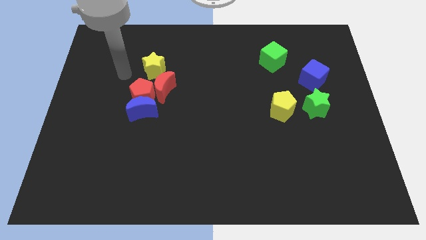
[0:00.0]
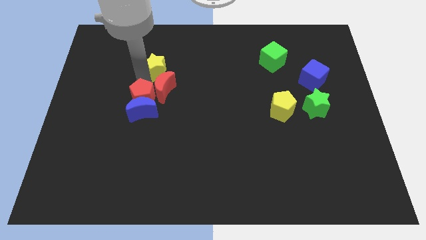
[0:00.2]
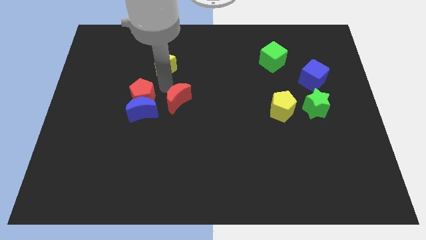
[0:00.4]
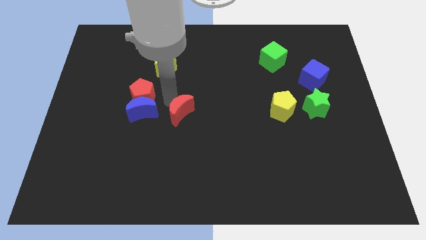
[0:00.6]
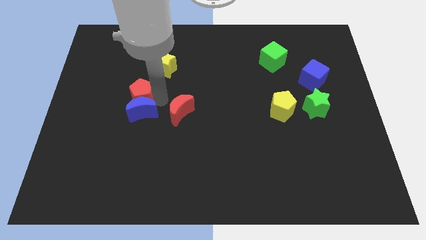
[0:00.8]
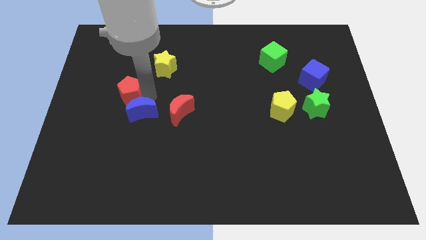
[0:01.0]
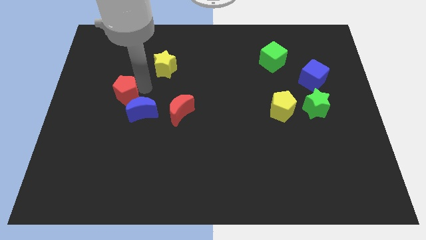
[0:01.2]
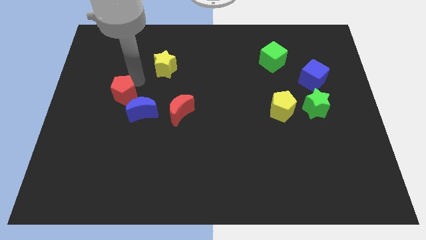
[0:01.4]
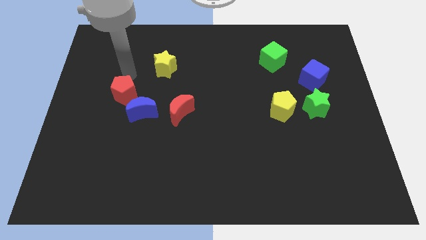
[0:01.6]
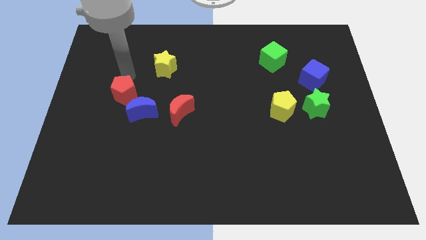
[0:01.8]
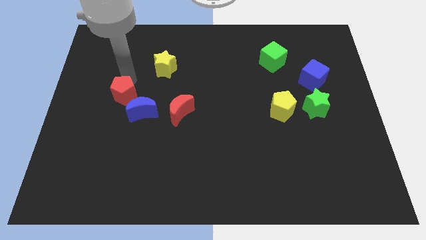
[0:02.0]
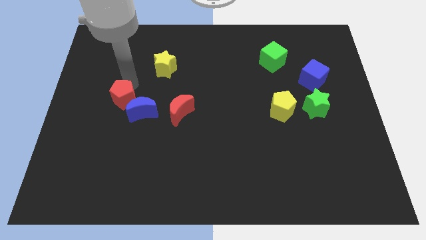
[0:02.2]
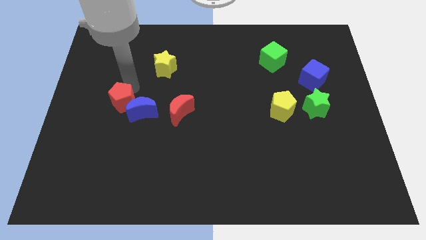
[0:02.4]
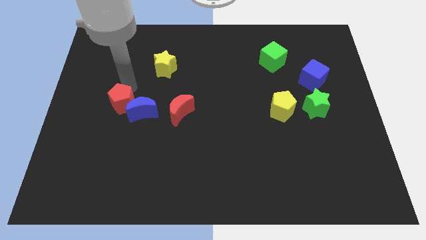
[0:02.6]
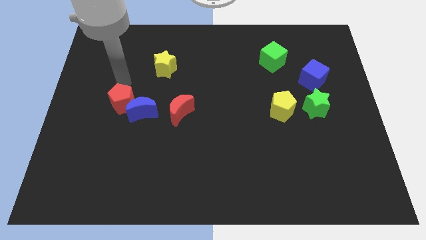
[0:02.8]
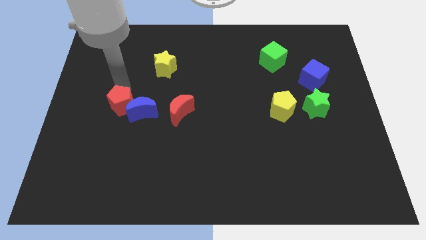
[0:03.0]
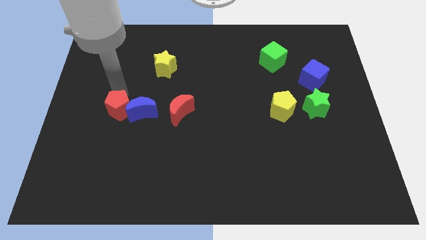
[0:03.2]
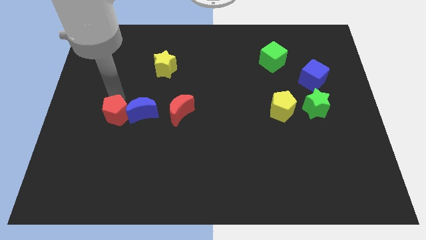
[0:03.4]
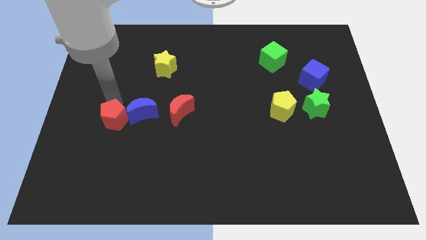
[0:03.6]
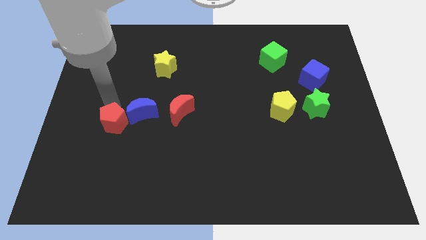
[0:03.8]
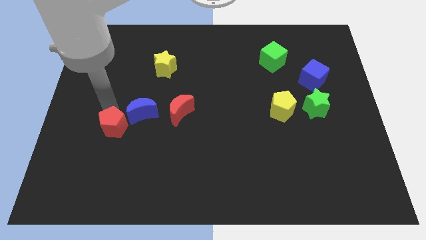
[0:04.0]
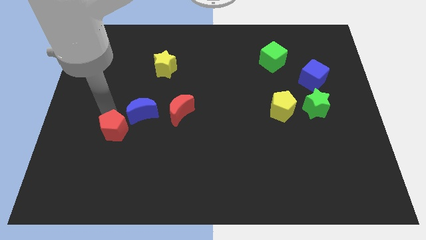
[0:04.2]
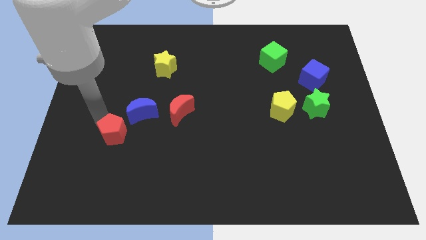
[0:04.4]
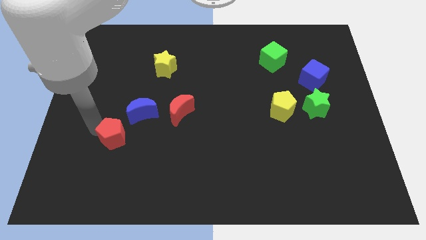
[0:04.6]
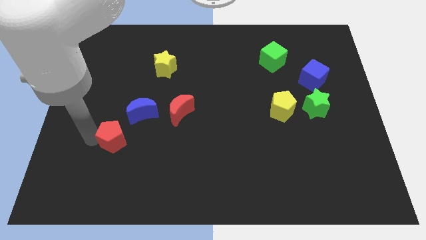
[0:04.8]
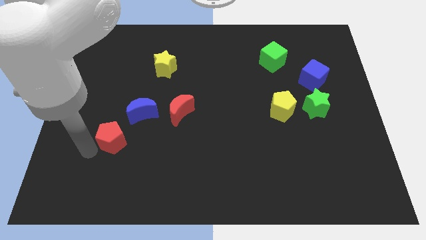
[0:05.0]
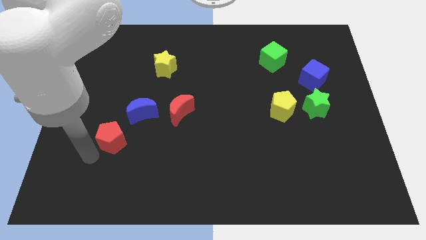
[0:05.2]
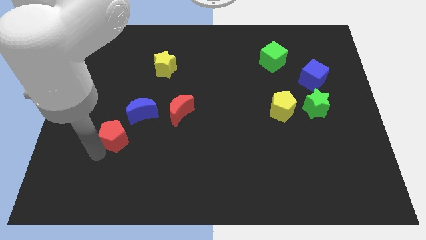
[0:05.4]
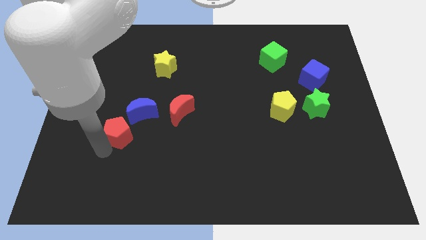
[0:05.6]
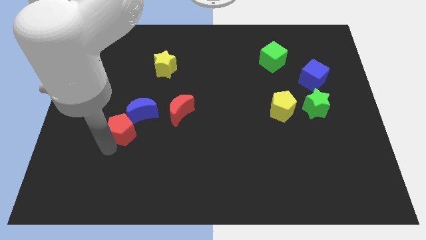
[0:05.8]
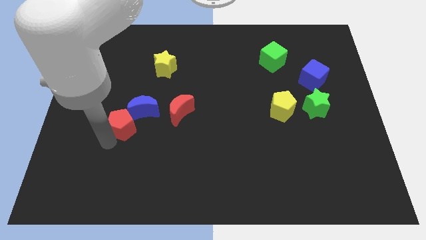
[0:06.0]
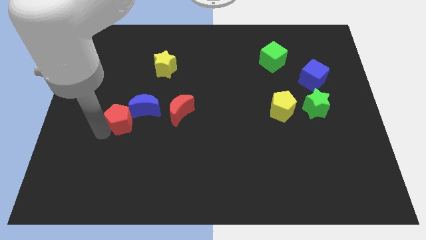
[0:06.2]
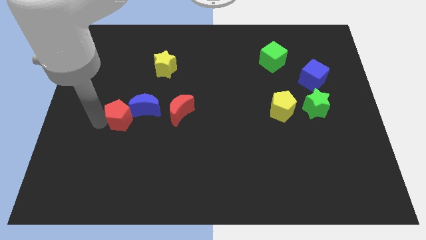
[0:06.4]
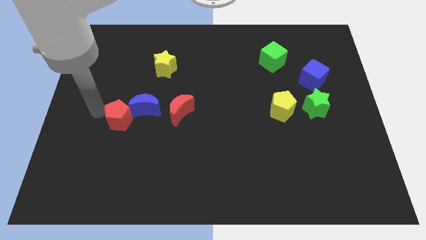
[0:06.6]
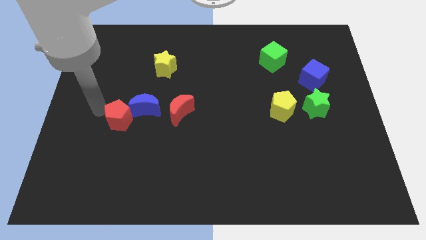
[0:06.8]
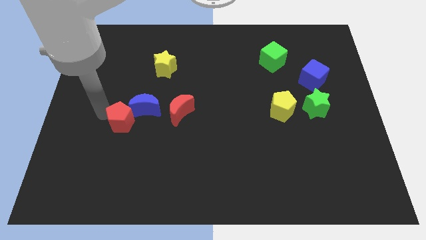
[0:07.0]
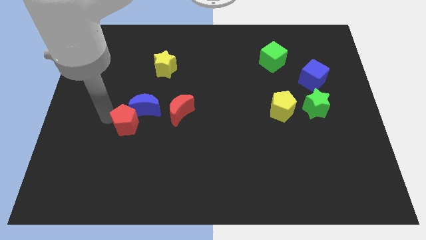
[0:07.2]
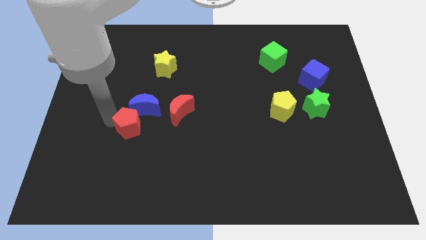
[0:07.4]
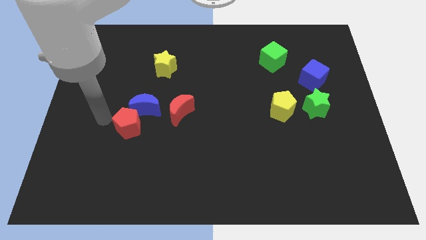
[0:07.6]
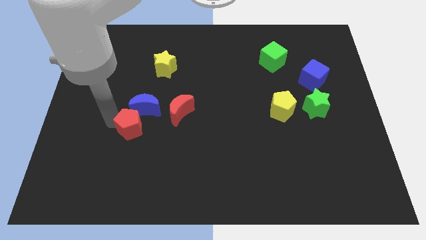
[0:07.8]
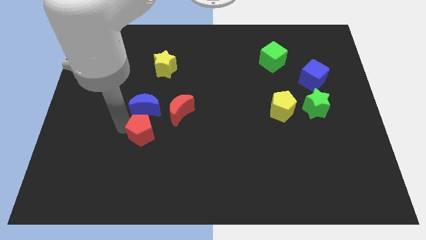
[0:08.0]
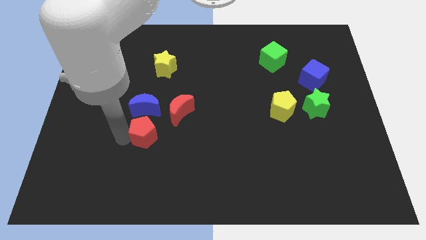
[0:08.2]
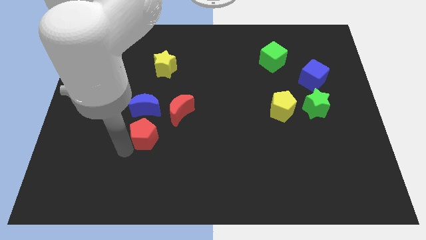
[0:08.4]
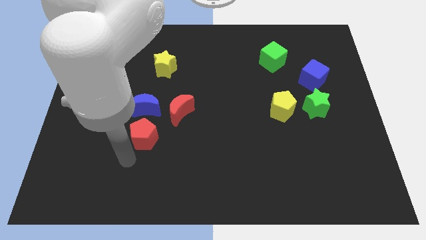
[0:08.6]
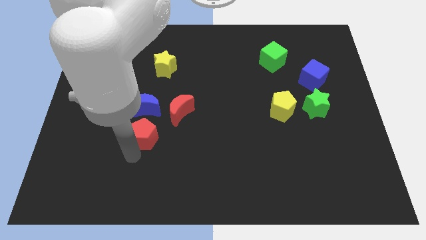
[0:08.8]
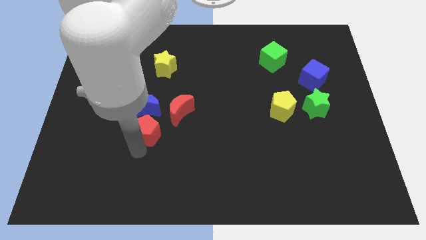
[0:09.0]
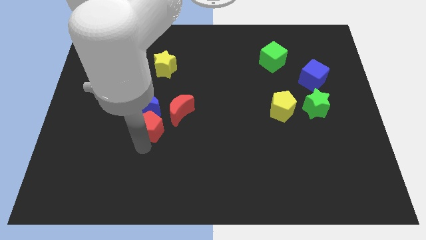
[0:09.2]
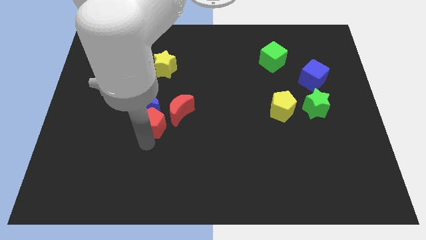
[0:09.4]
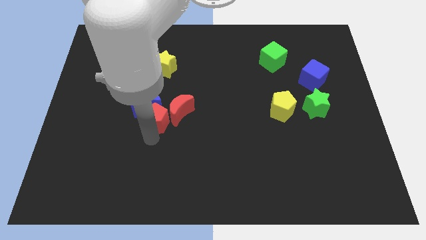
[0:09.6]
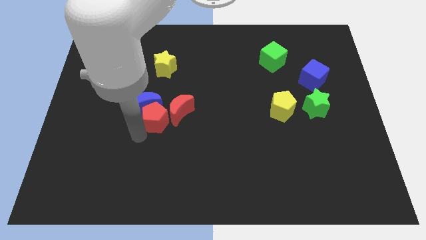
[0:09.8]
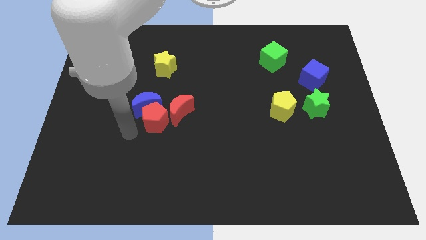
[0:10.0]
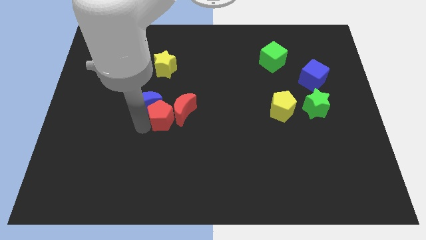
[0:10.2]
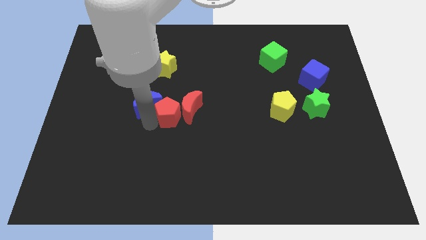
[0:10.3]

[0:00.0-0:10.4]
put the red pentagon to the center of the board

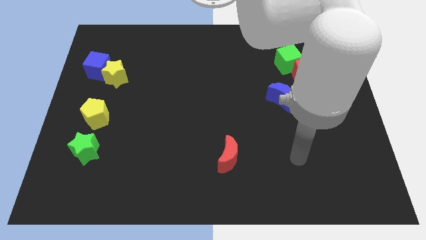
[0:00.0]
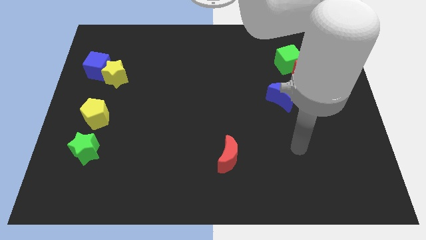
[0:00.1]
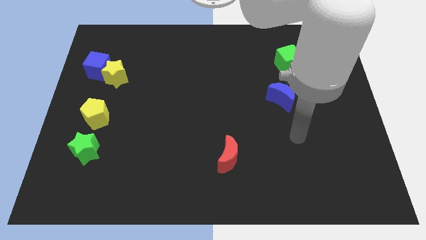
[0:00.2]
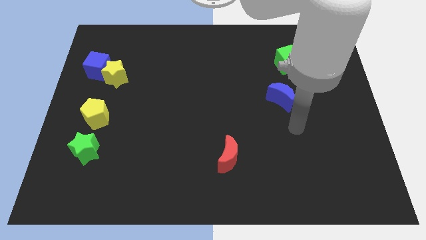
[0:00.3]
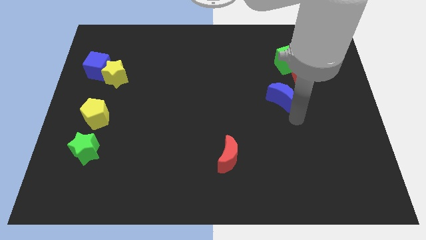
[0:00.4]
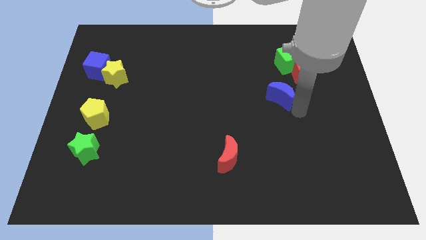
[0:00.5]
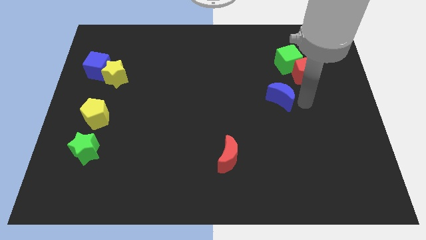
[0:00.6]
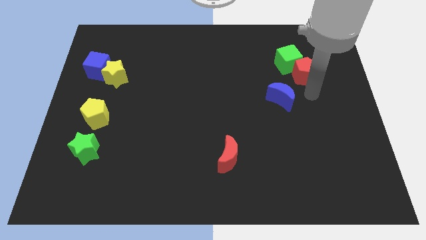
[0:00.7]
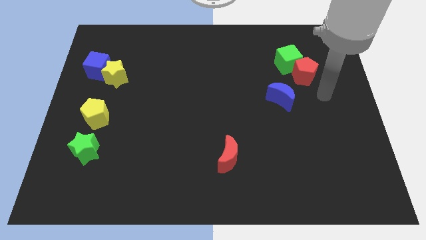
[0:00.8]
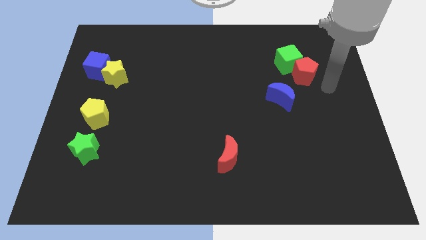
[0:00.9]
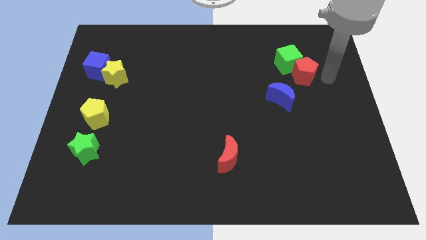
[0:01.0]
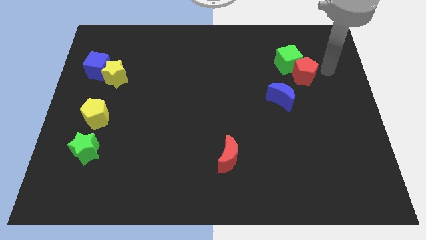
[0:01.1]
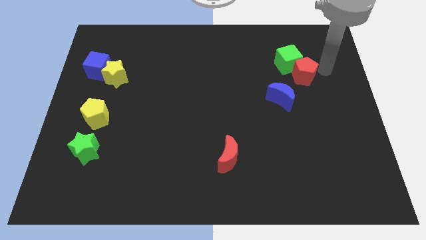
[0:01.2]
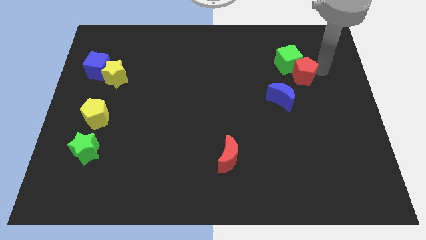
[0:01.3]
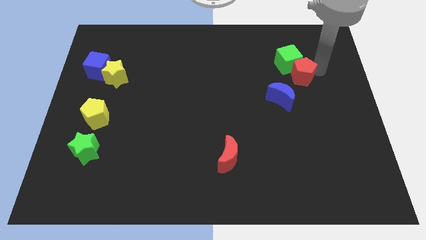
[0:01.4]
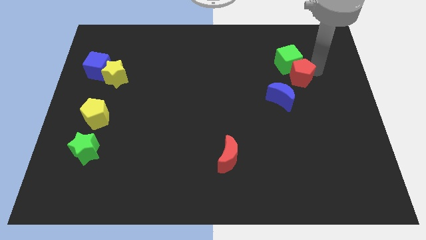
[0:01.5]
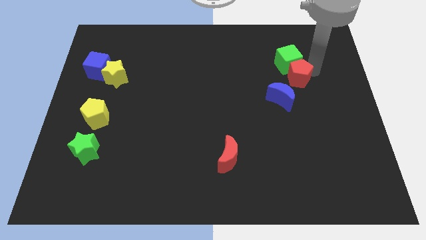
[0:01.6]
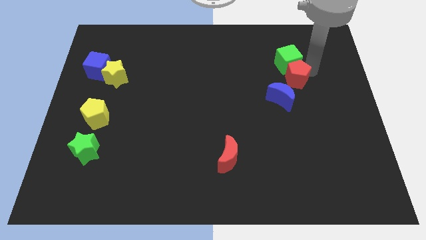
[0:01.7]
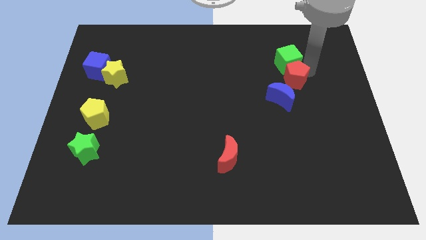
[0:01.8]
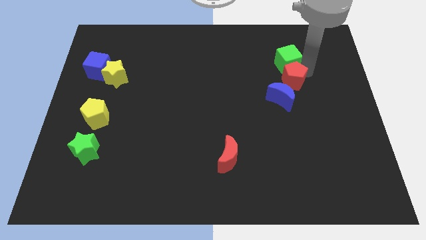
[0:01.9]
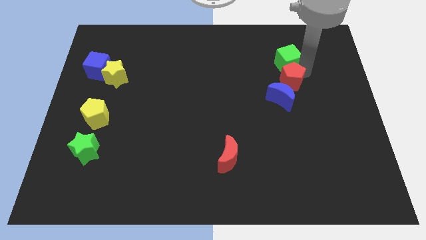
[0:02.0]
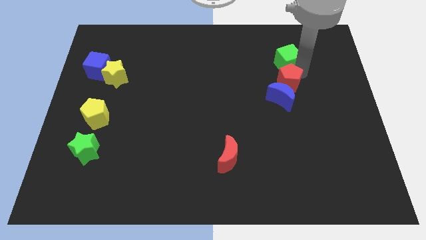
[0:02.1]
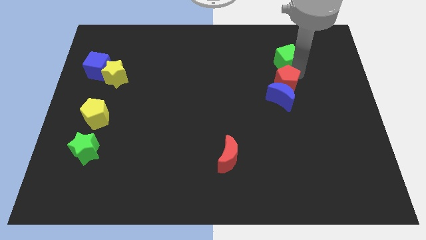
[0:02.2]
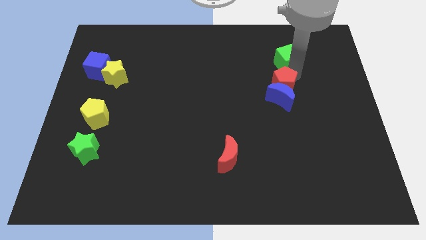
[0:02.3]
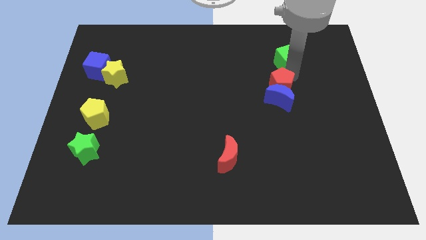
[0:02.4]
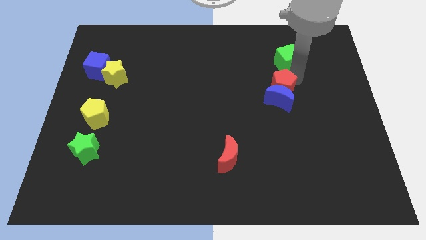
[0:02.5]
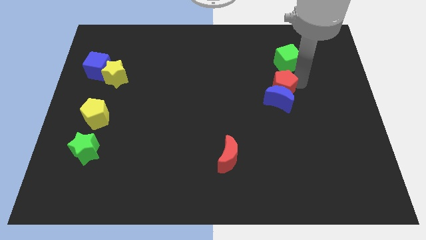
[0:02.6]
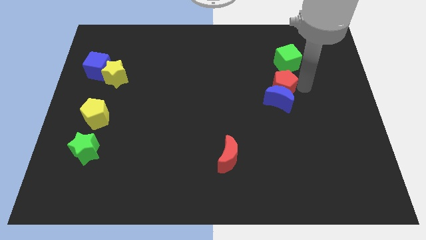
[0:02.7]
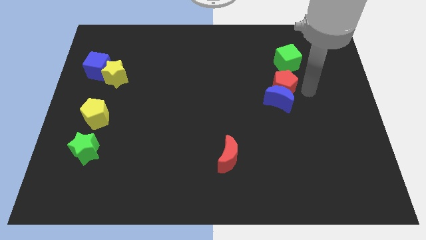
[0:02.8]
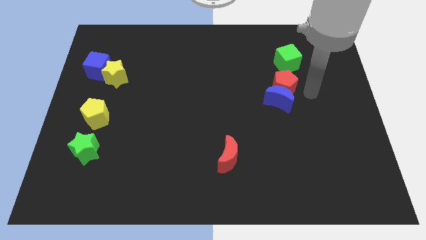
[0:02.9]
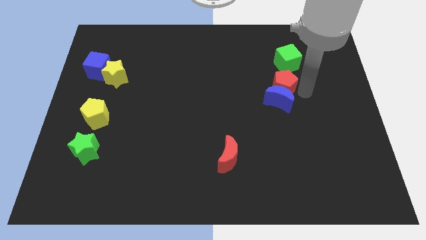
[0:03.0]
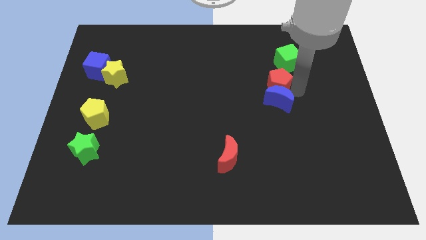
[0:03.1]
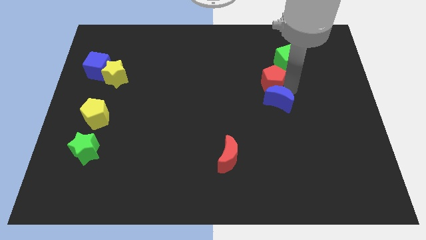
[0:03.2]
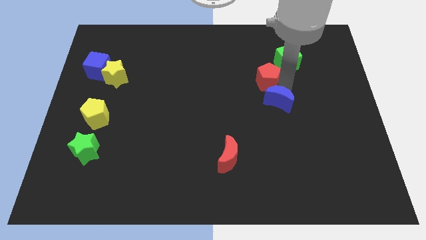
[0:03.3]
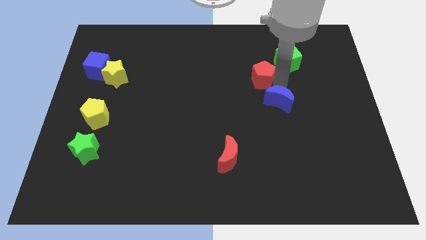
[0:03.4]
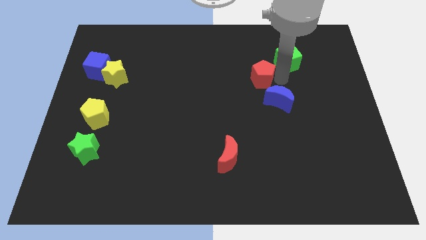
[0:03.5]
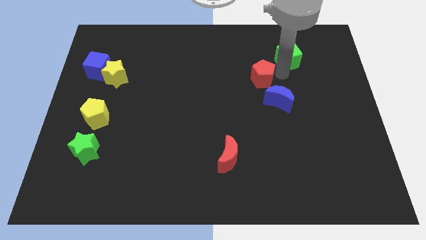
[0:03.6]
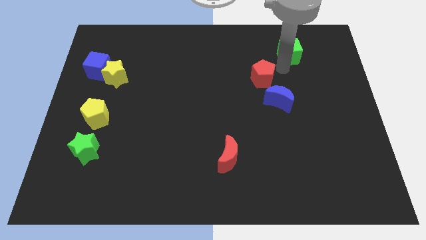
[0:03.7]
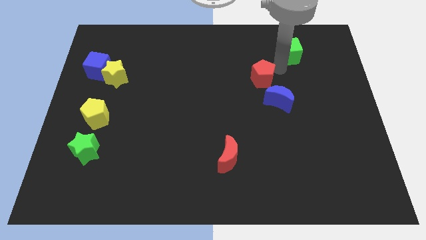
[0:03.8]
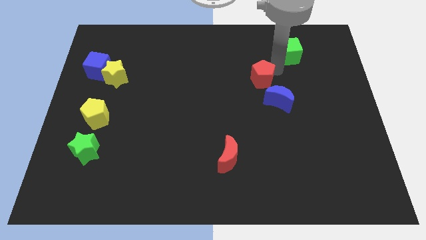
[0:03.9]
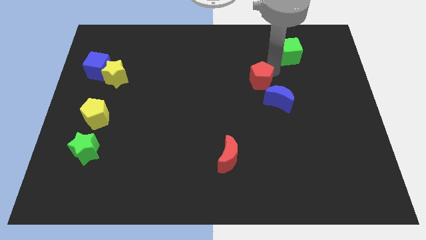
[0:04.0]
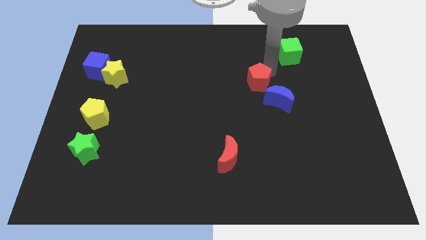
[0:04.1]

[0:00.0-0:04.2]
move the red pentagon to the center
